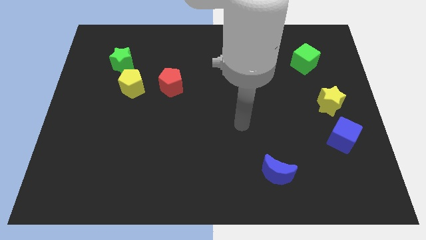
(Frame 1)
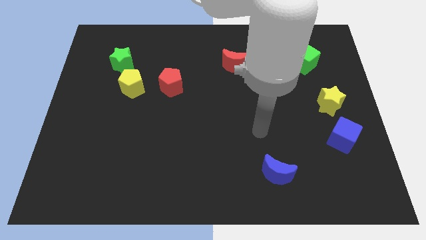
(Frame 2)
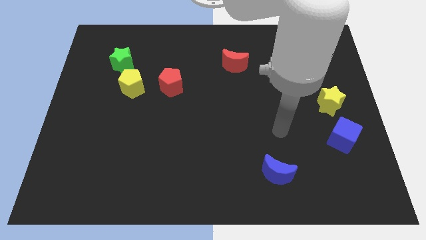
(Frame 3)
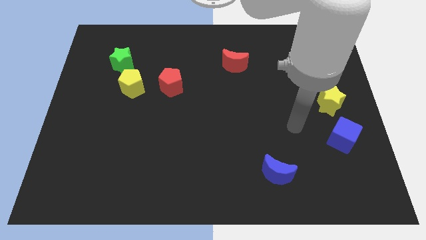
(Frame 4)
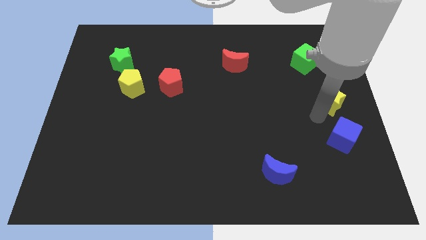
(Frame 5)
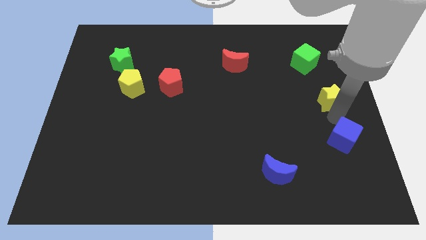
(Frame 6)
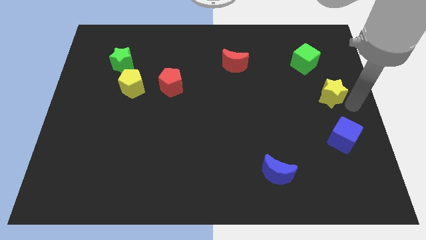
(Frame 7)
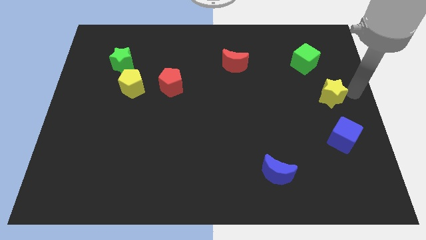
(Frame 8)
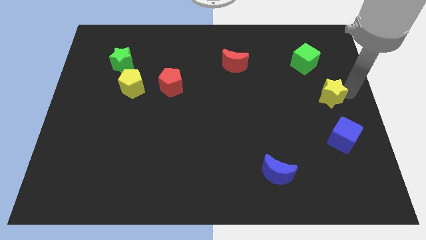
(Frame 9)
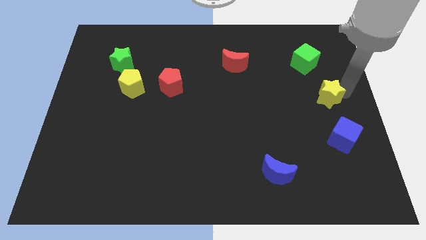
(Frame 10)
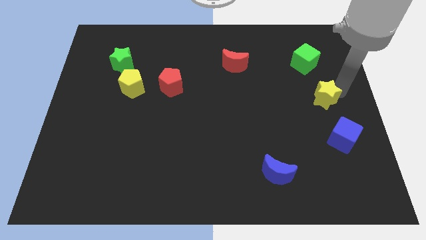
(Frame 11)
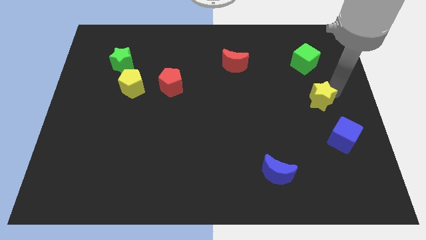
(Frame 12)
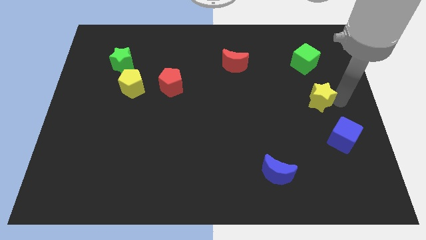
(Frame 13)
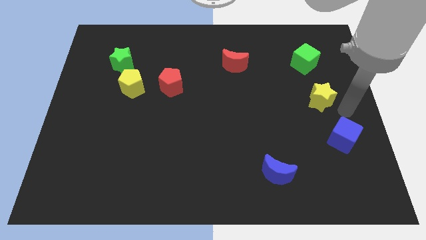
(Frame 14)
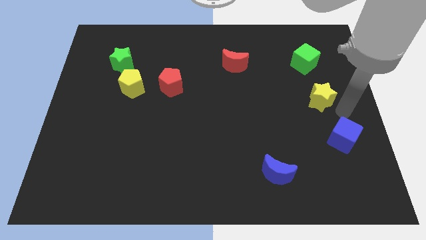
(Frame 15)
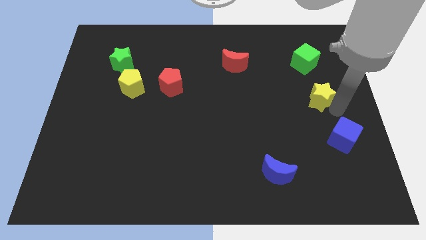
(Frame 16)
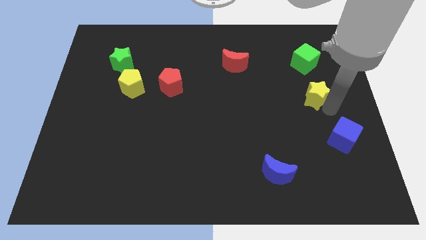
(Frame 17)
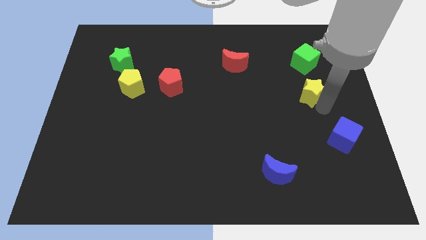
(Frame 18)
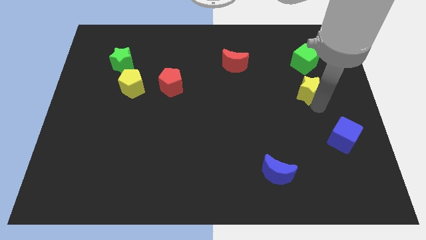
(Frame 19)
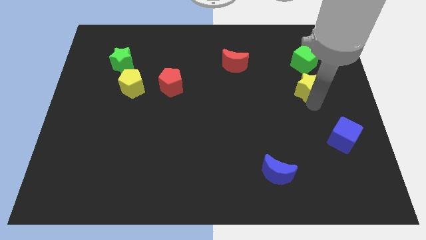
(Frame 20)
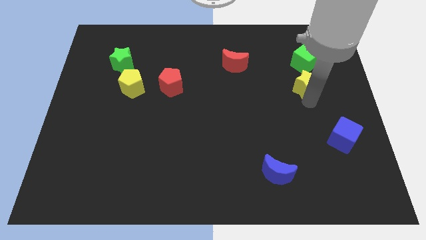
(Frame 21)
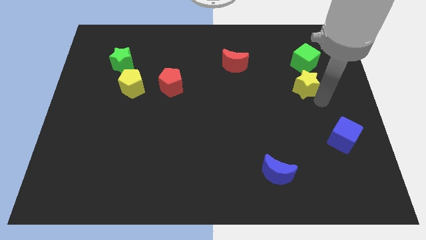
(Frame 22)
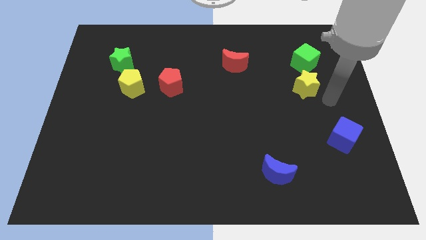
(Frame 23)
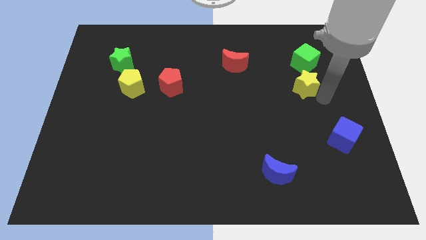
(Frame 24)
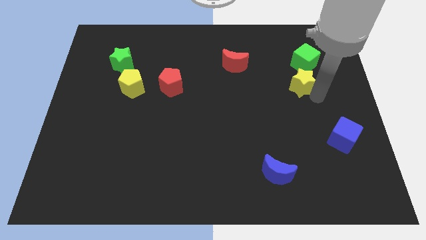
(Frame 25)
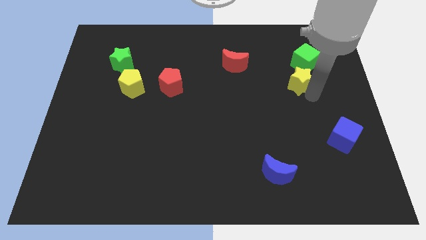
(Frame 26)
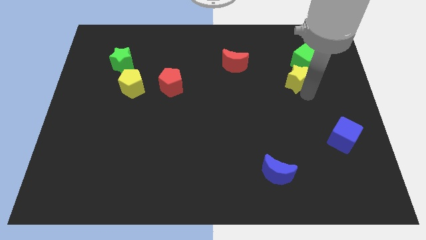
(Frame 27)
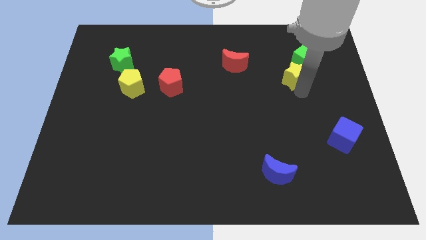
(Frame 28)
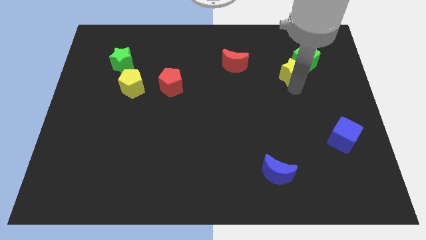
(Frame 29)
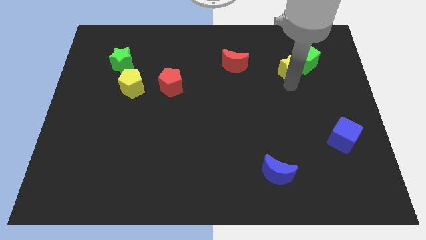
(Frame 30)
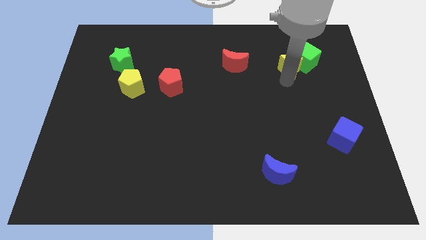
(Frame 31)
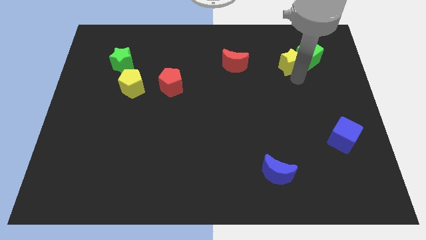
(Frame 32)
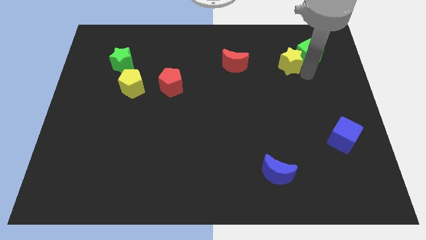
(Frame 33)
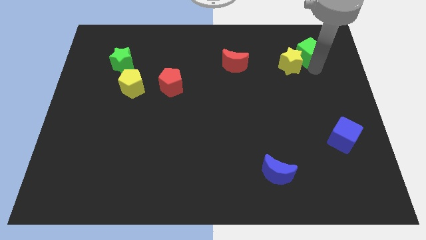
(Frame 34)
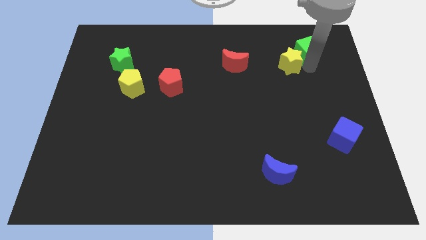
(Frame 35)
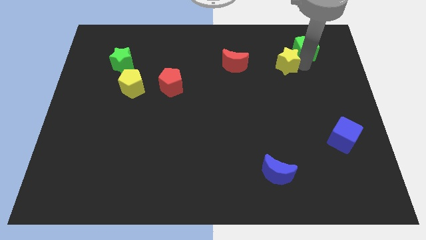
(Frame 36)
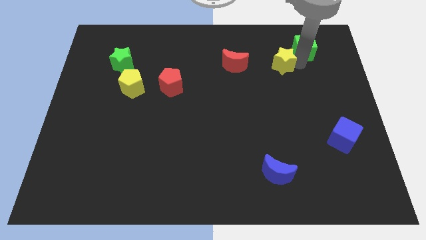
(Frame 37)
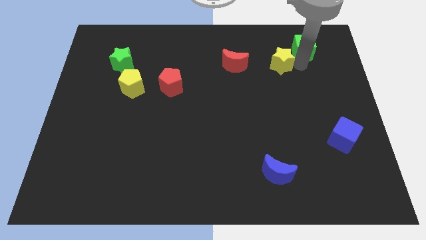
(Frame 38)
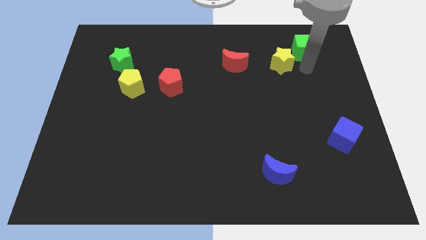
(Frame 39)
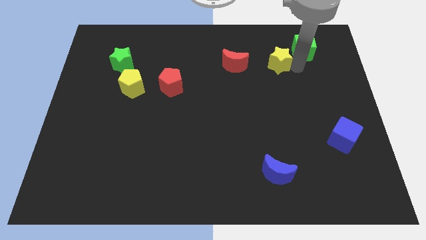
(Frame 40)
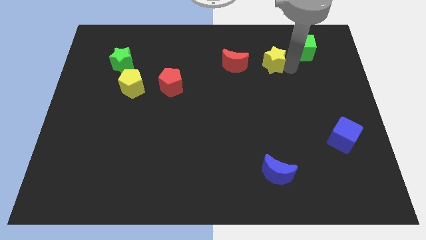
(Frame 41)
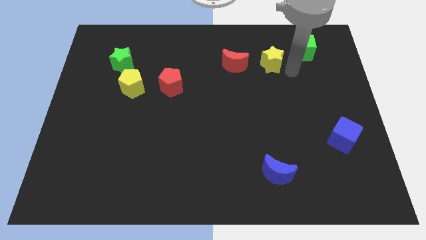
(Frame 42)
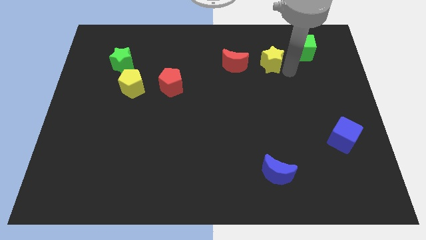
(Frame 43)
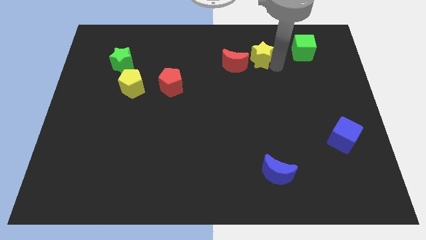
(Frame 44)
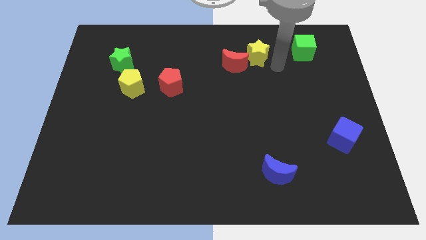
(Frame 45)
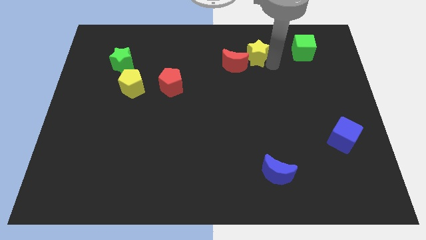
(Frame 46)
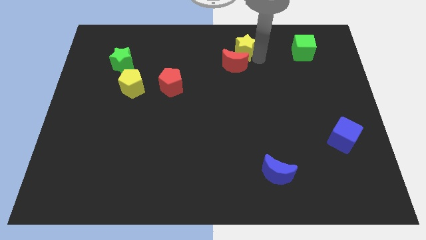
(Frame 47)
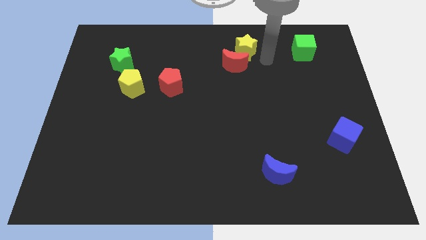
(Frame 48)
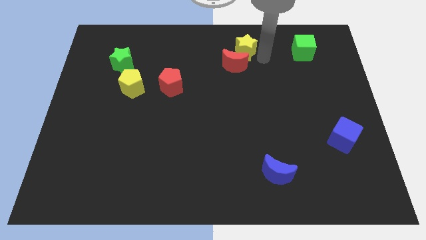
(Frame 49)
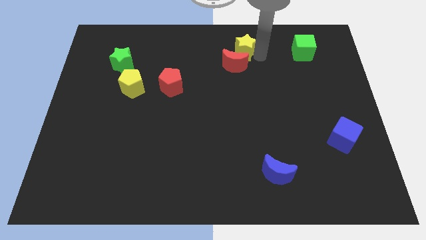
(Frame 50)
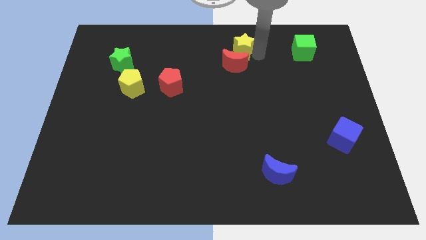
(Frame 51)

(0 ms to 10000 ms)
put the yellow star to the top side

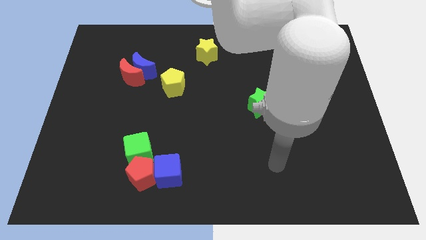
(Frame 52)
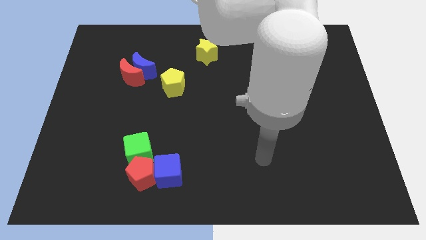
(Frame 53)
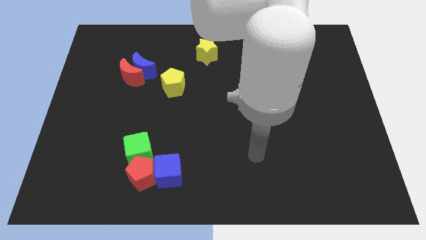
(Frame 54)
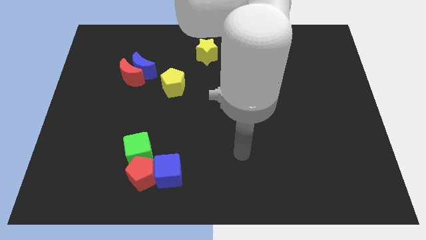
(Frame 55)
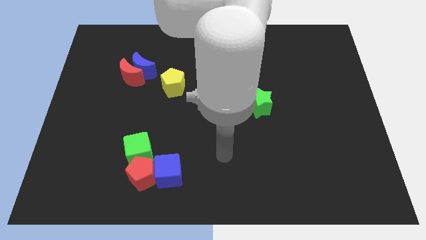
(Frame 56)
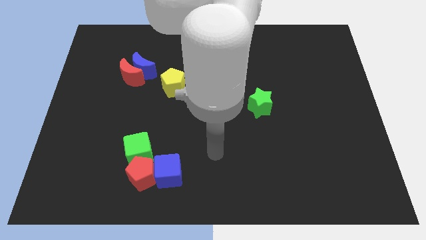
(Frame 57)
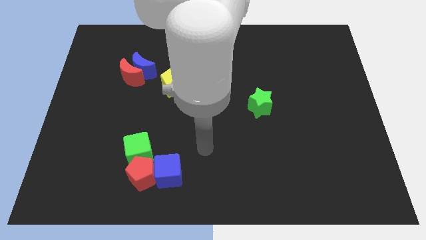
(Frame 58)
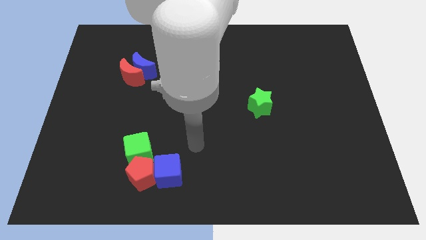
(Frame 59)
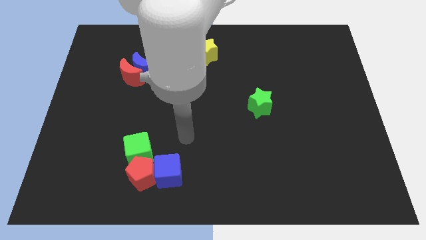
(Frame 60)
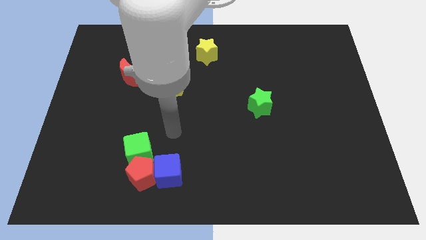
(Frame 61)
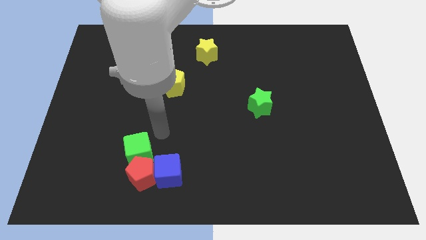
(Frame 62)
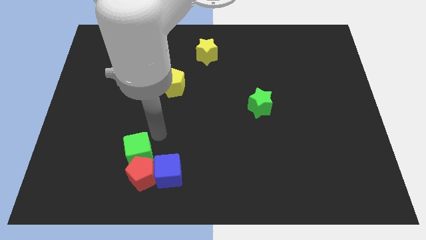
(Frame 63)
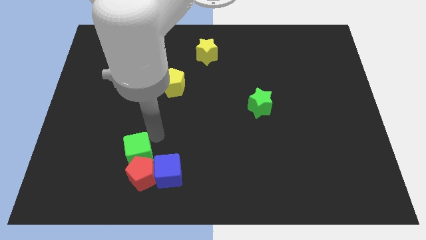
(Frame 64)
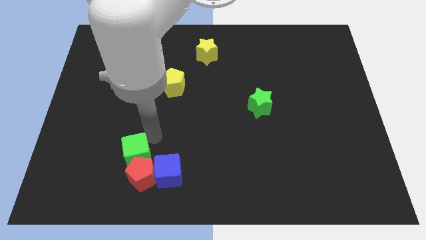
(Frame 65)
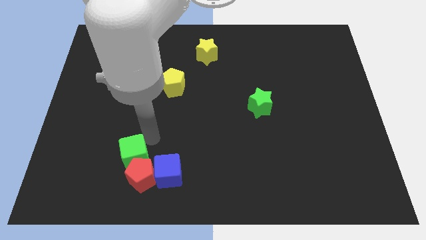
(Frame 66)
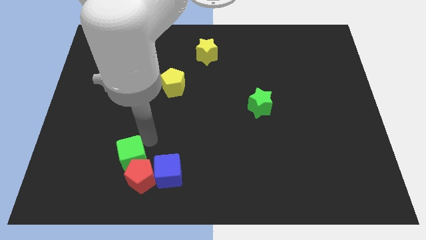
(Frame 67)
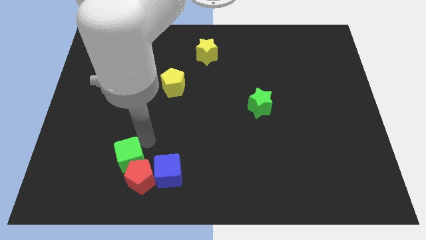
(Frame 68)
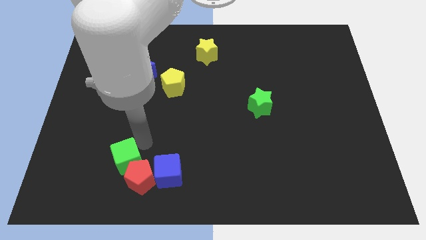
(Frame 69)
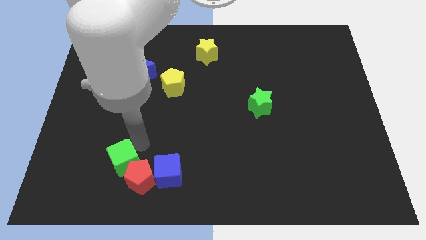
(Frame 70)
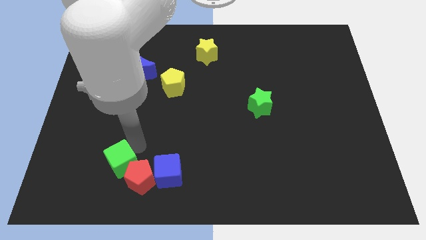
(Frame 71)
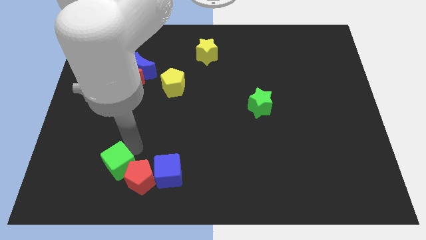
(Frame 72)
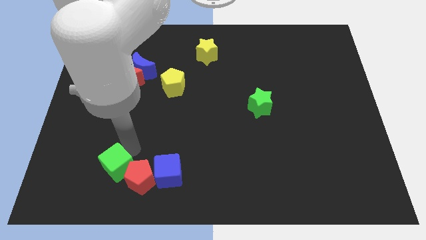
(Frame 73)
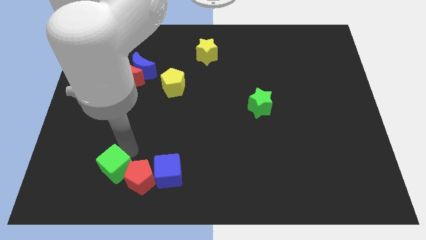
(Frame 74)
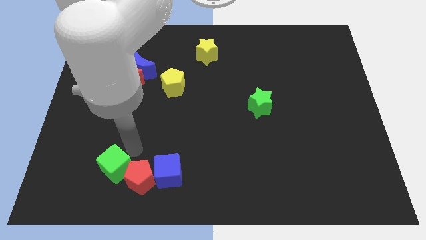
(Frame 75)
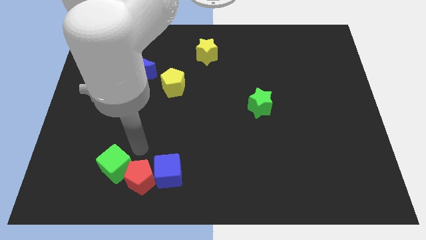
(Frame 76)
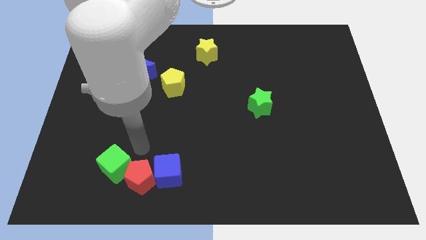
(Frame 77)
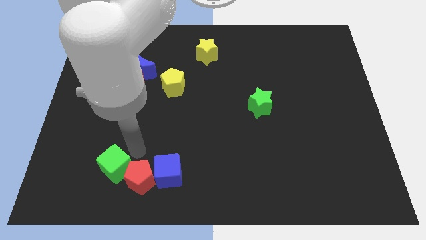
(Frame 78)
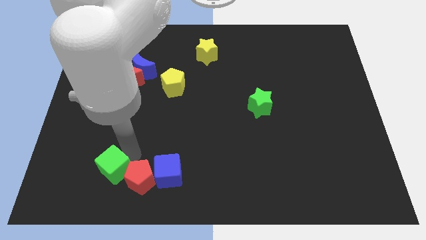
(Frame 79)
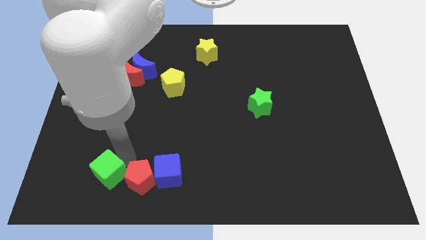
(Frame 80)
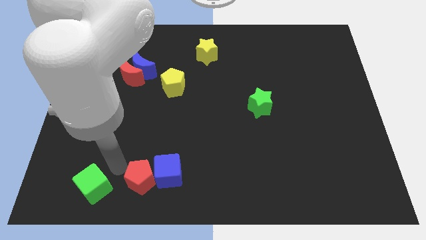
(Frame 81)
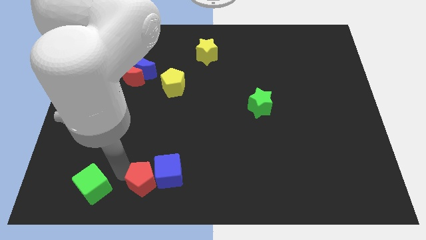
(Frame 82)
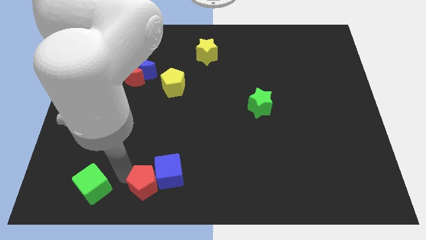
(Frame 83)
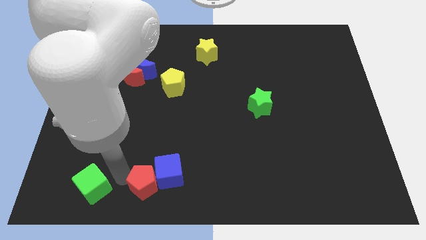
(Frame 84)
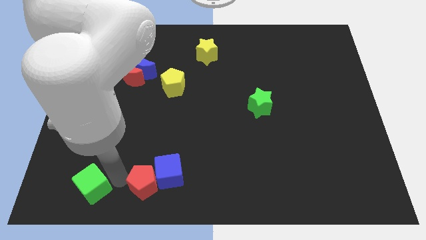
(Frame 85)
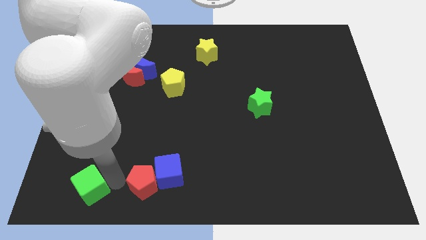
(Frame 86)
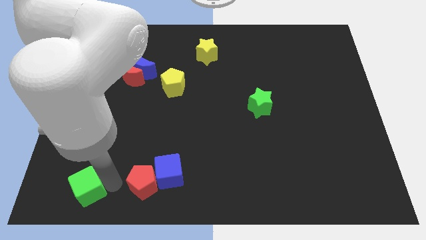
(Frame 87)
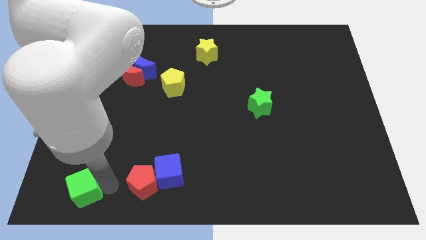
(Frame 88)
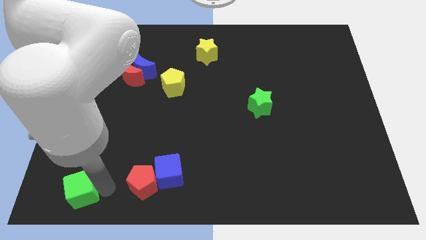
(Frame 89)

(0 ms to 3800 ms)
slide the green cube to the bottom left of the board
